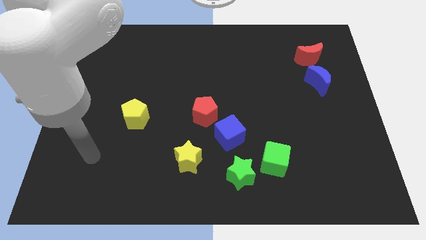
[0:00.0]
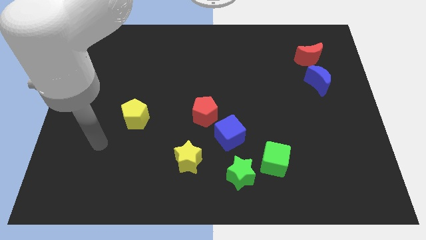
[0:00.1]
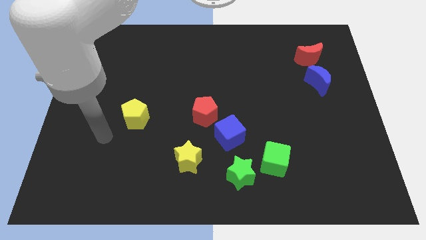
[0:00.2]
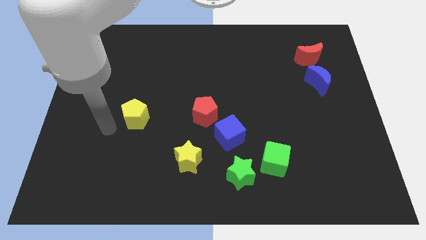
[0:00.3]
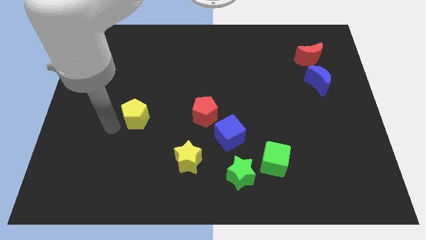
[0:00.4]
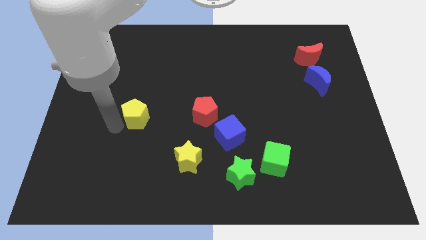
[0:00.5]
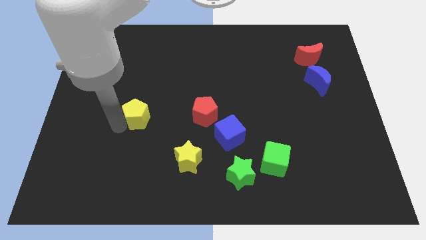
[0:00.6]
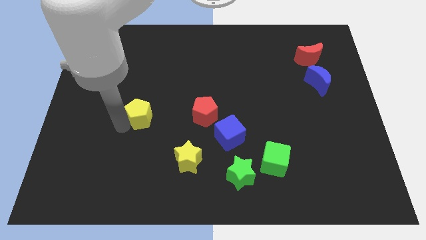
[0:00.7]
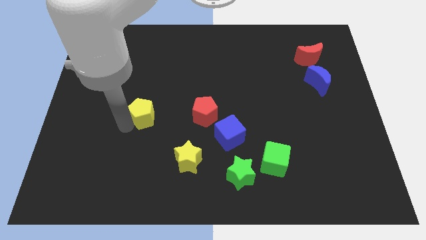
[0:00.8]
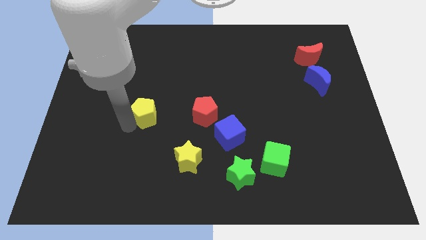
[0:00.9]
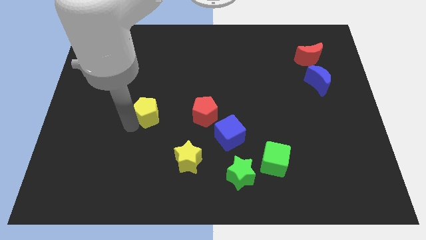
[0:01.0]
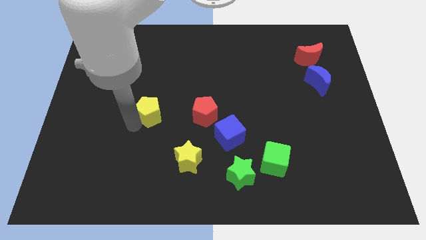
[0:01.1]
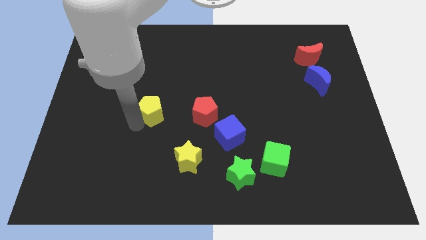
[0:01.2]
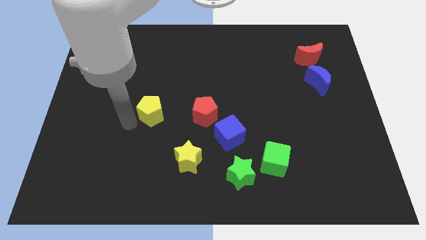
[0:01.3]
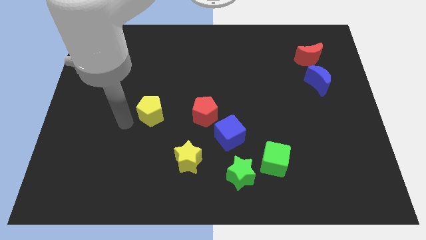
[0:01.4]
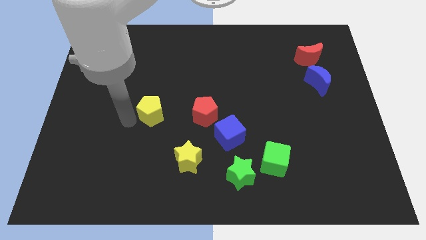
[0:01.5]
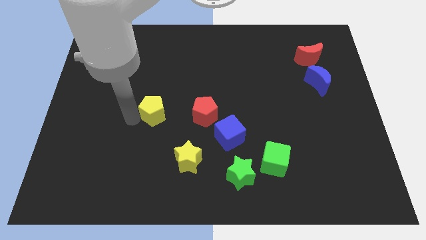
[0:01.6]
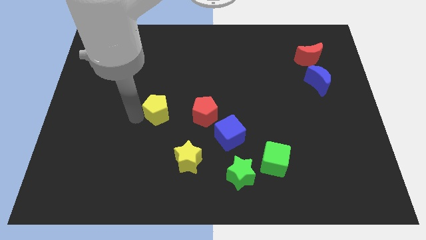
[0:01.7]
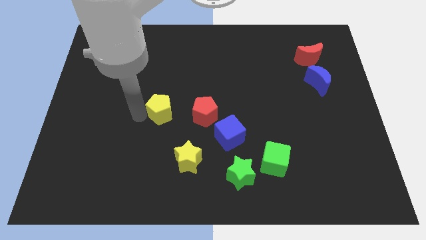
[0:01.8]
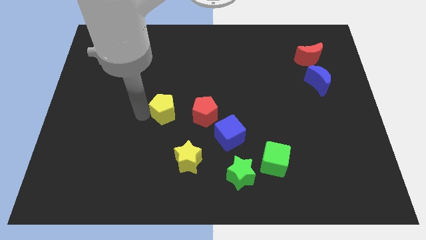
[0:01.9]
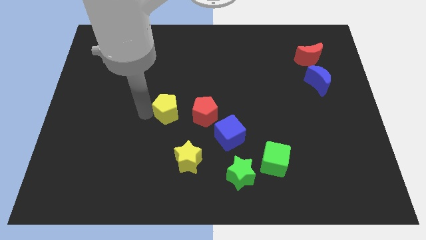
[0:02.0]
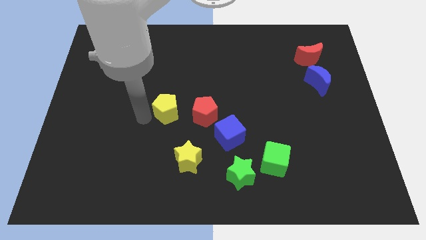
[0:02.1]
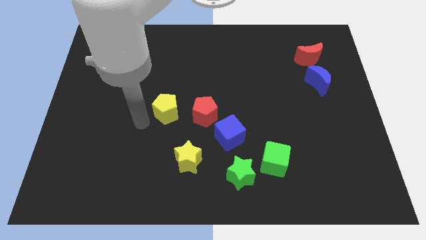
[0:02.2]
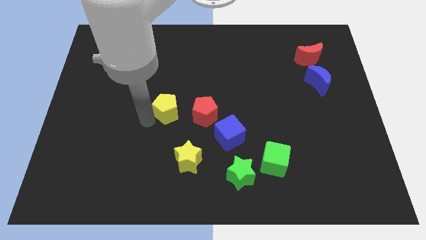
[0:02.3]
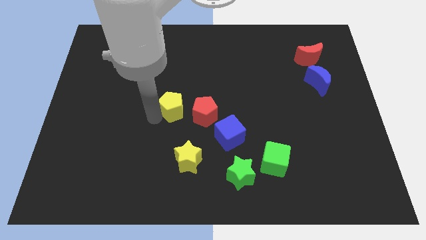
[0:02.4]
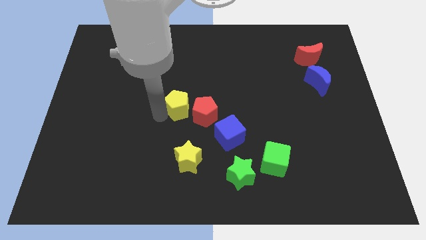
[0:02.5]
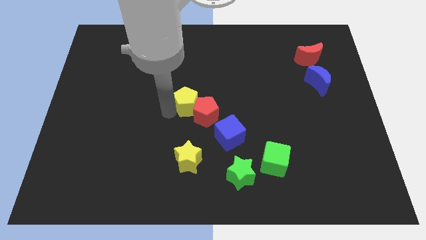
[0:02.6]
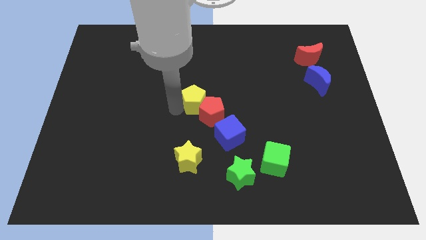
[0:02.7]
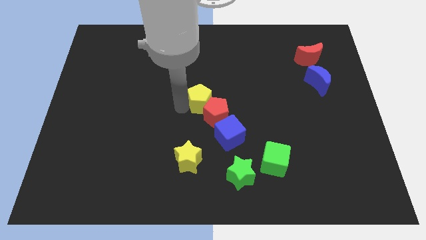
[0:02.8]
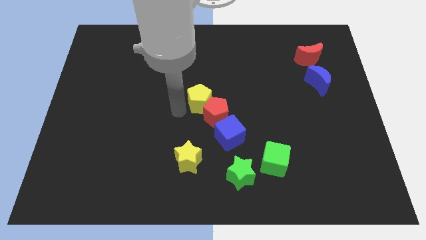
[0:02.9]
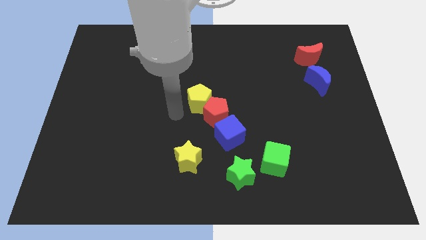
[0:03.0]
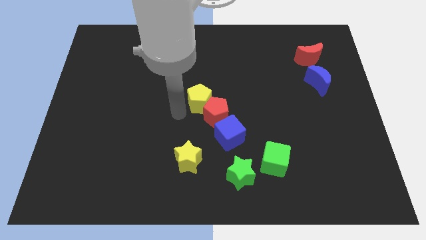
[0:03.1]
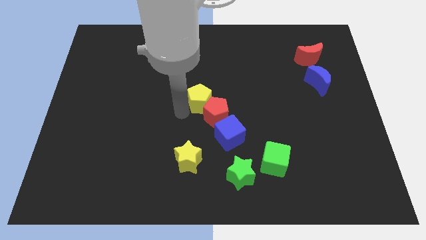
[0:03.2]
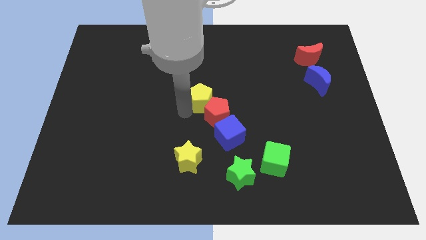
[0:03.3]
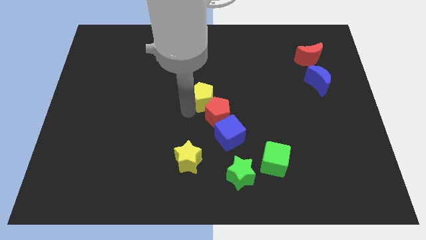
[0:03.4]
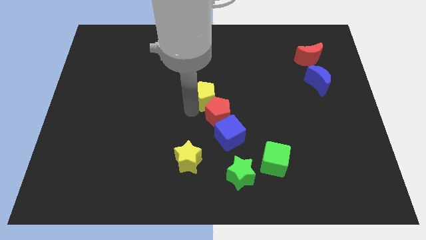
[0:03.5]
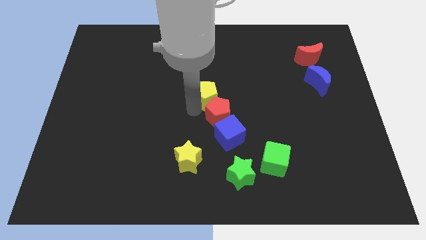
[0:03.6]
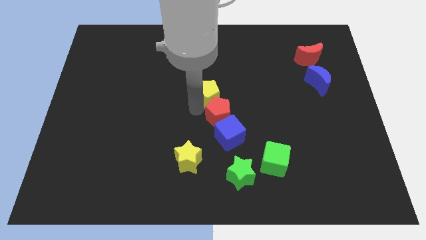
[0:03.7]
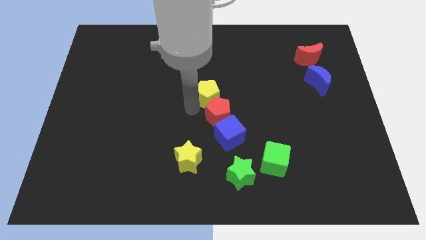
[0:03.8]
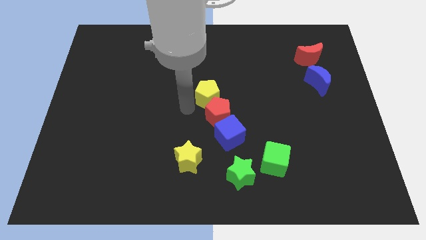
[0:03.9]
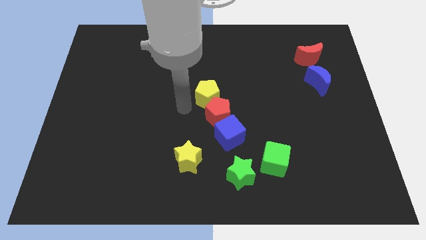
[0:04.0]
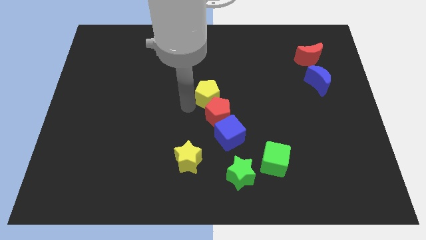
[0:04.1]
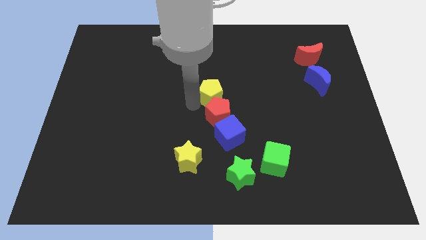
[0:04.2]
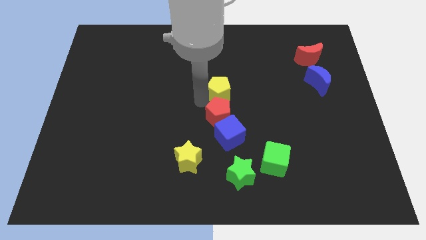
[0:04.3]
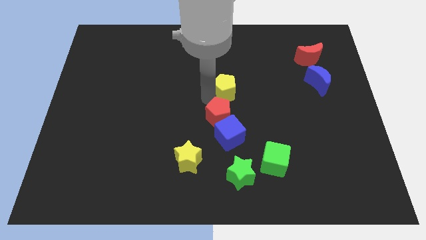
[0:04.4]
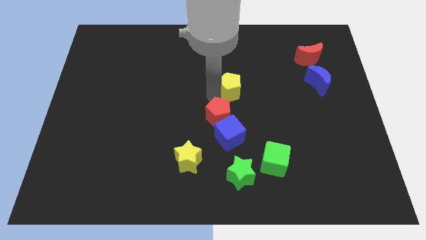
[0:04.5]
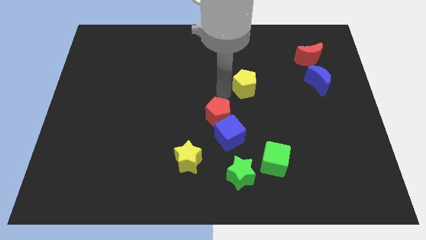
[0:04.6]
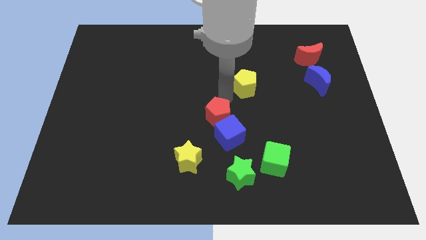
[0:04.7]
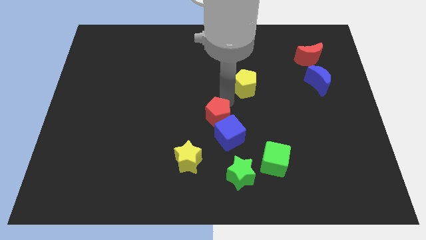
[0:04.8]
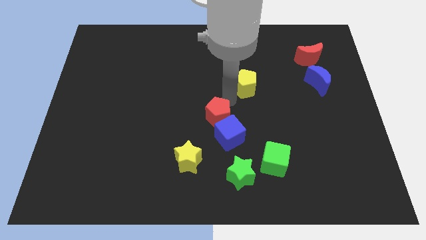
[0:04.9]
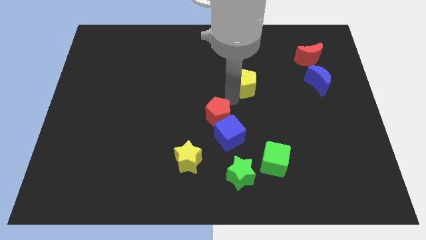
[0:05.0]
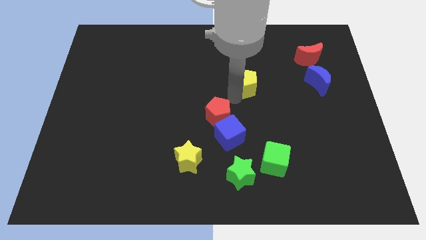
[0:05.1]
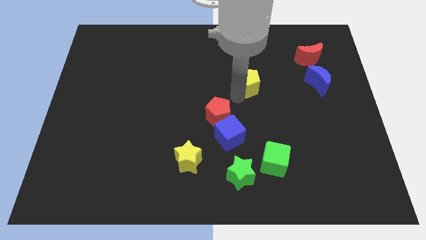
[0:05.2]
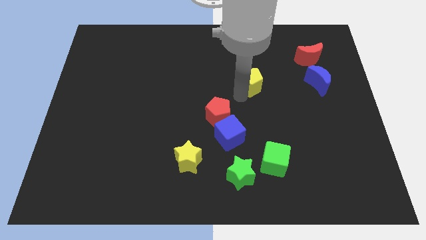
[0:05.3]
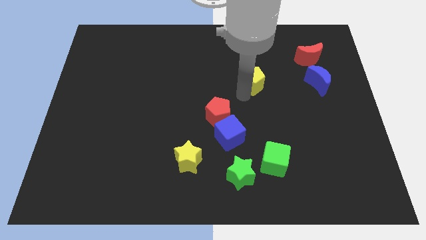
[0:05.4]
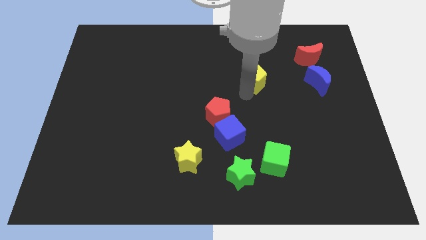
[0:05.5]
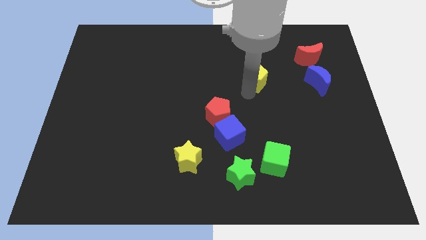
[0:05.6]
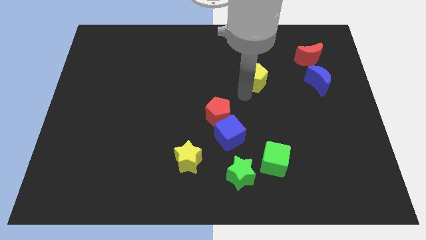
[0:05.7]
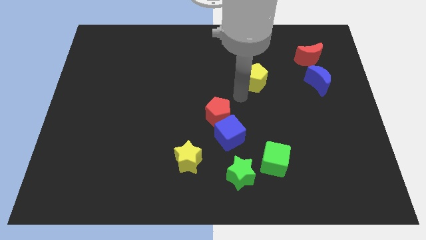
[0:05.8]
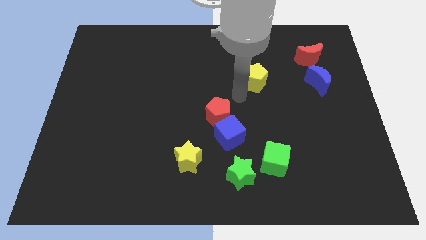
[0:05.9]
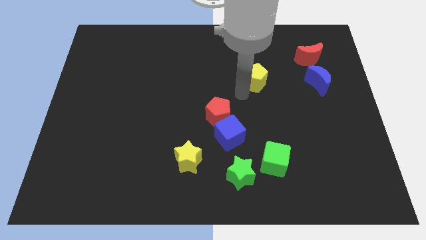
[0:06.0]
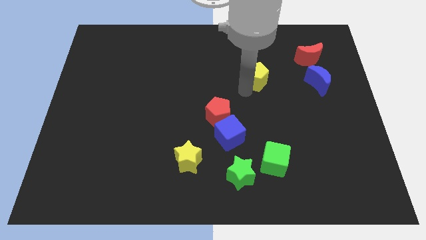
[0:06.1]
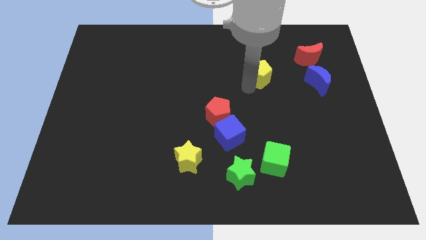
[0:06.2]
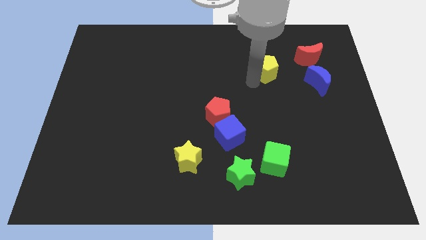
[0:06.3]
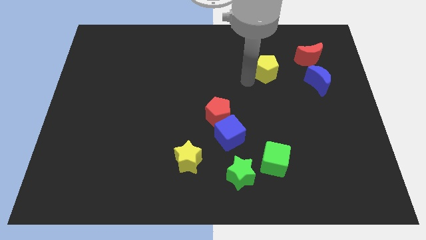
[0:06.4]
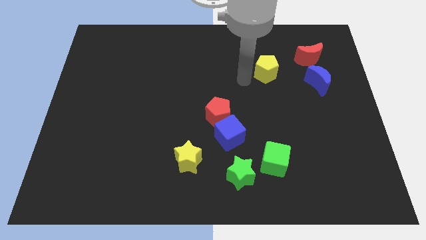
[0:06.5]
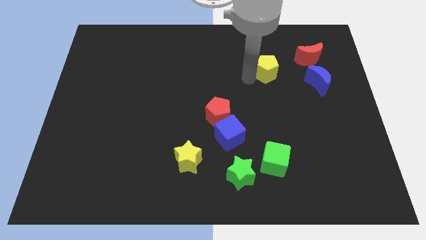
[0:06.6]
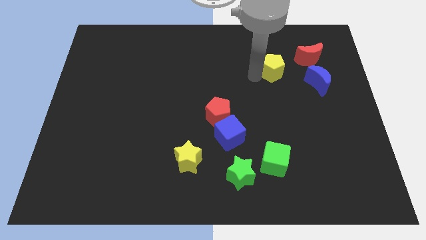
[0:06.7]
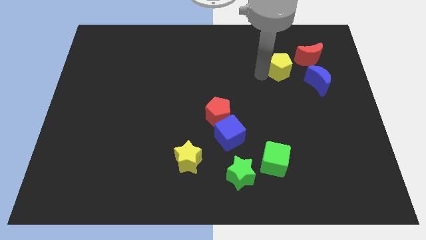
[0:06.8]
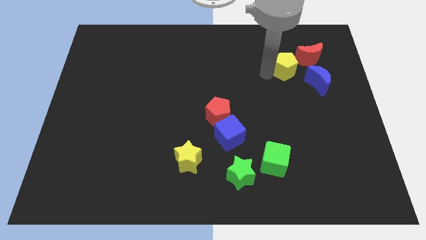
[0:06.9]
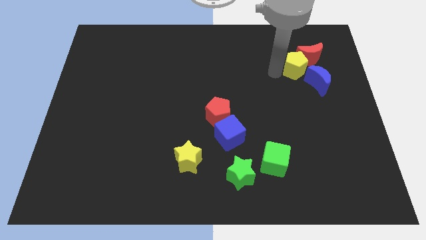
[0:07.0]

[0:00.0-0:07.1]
move the yellow pentagon towards the red moon

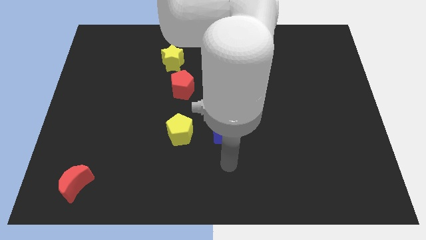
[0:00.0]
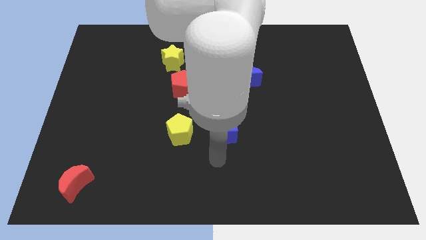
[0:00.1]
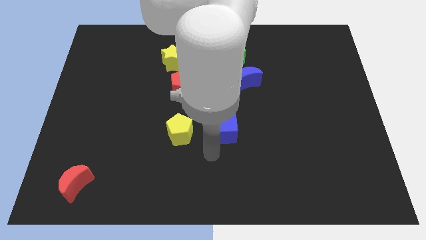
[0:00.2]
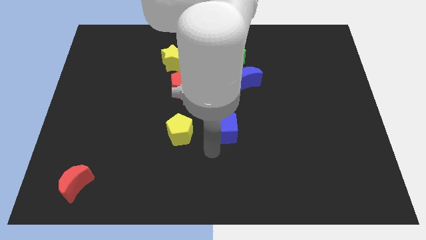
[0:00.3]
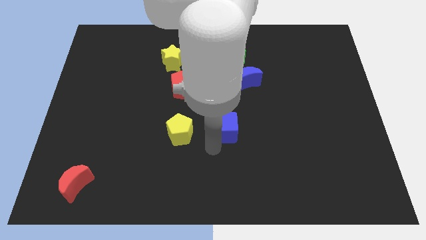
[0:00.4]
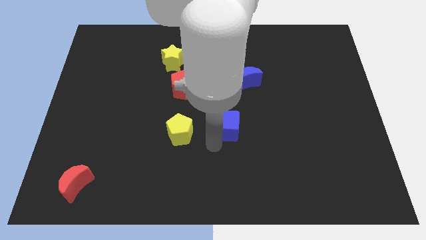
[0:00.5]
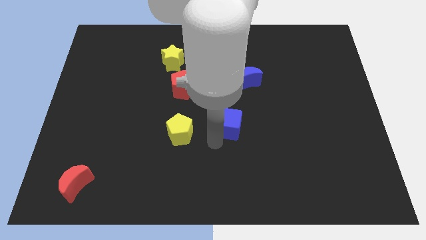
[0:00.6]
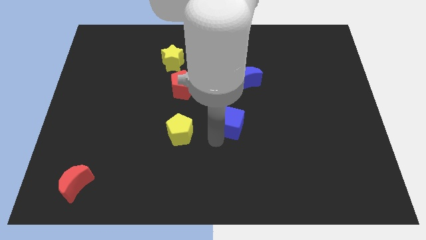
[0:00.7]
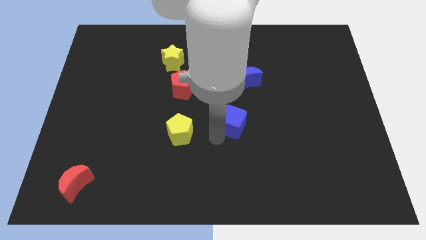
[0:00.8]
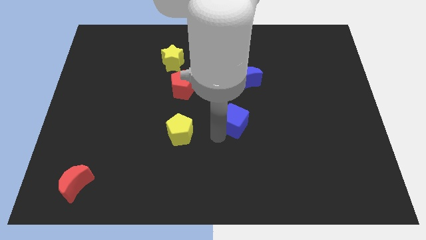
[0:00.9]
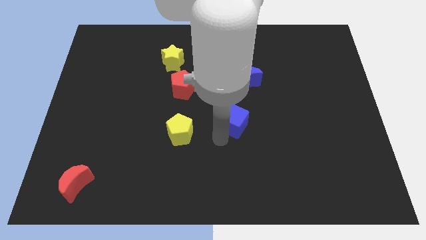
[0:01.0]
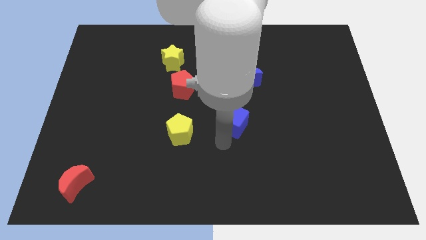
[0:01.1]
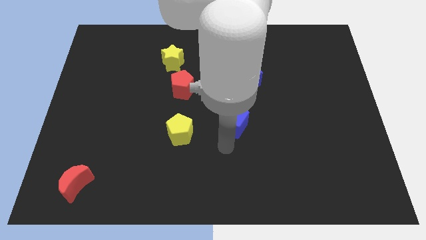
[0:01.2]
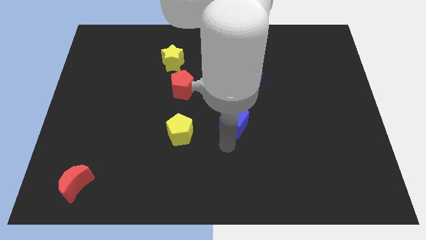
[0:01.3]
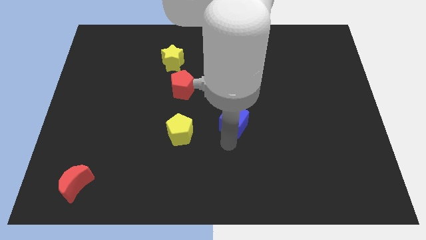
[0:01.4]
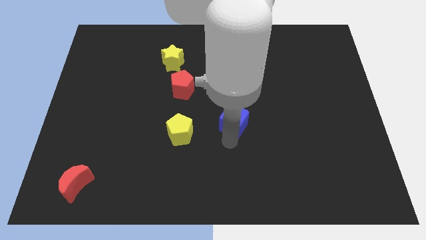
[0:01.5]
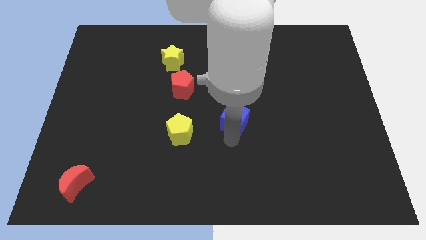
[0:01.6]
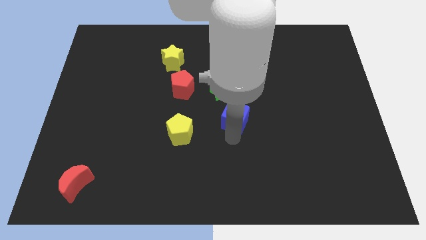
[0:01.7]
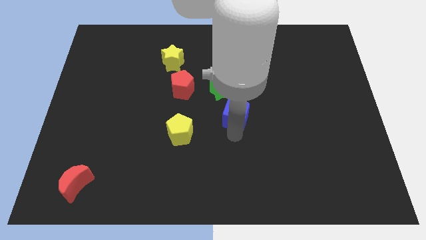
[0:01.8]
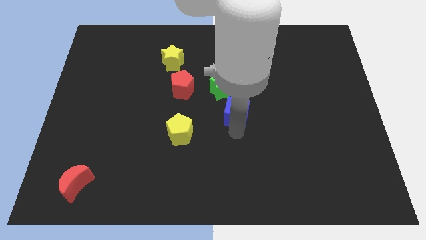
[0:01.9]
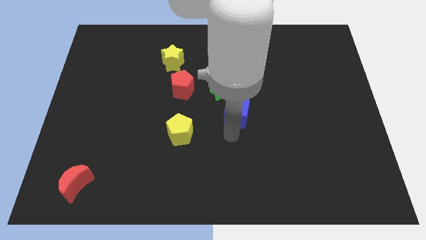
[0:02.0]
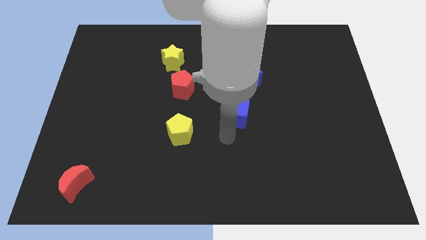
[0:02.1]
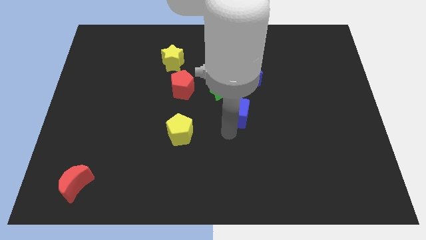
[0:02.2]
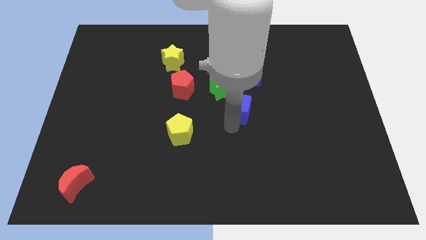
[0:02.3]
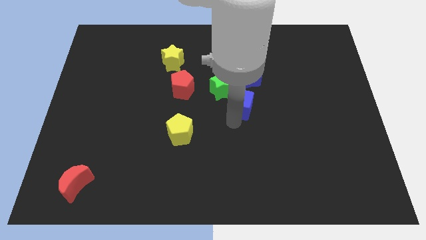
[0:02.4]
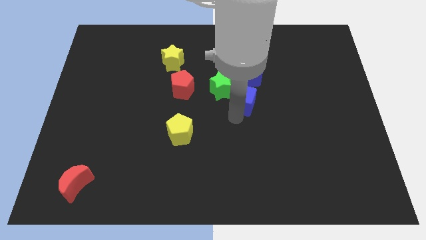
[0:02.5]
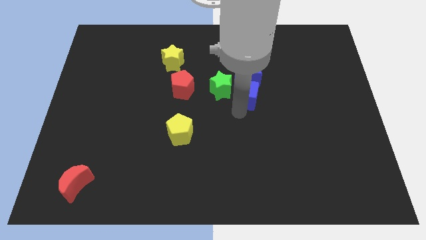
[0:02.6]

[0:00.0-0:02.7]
push the blue cube next to the blue moon
